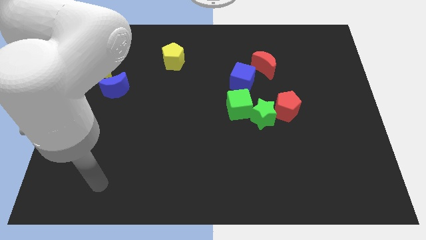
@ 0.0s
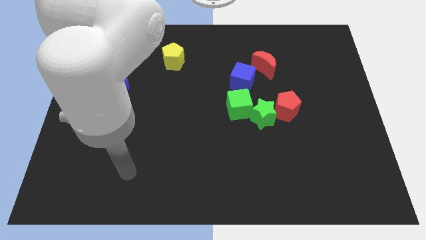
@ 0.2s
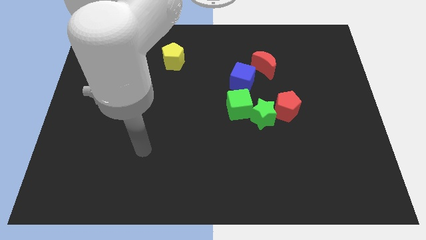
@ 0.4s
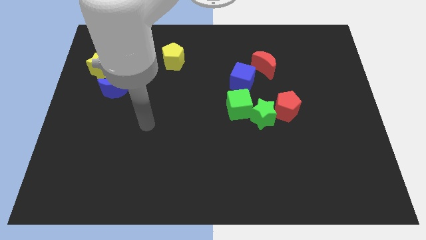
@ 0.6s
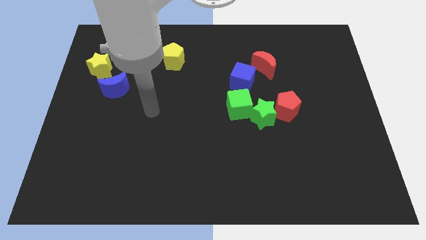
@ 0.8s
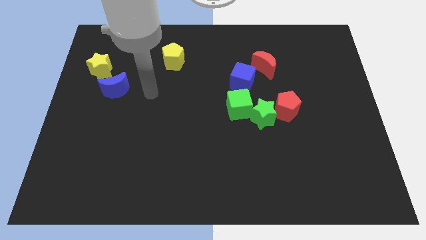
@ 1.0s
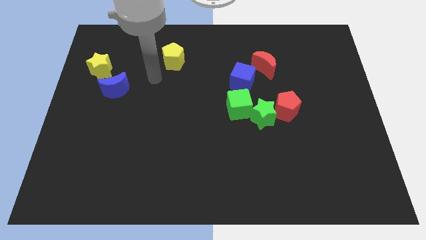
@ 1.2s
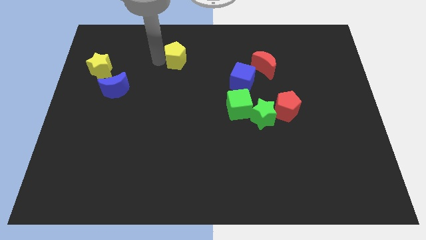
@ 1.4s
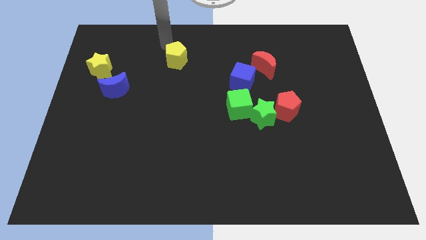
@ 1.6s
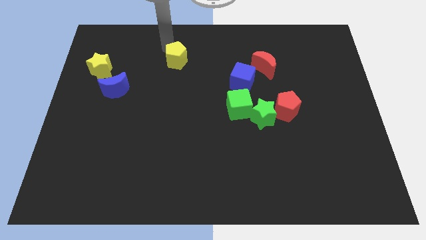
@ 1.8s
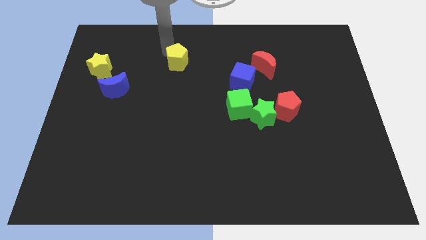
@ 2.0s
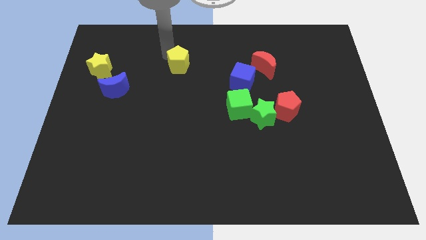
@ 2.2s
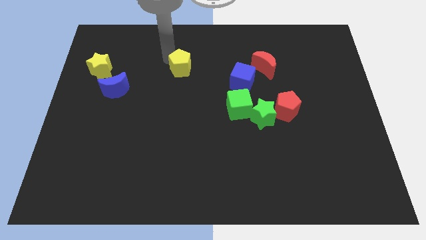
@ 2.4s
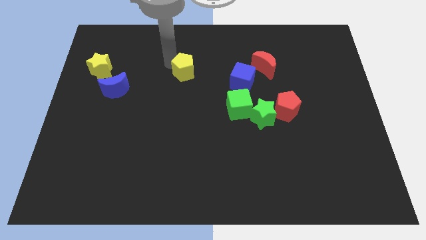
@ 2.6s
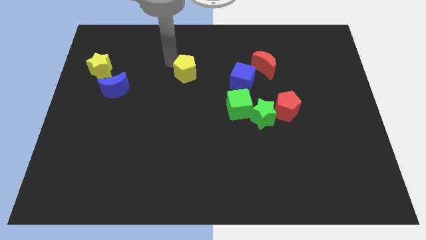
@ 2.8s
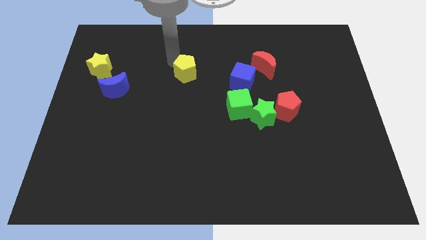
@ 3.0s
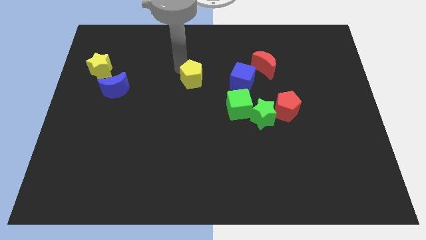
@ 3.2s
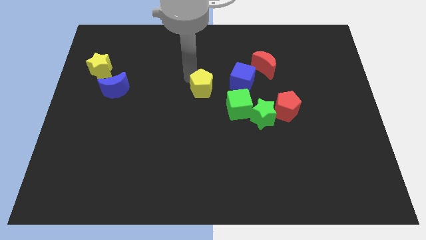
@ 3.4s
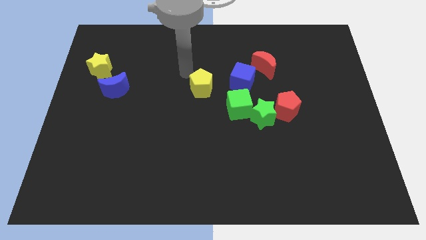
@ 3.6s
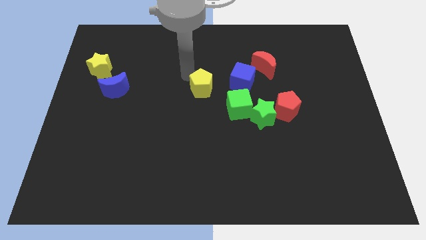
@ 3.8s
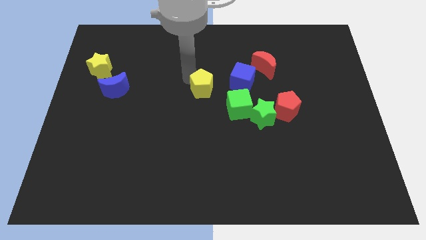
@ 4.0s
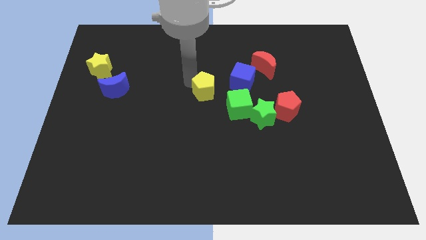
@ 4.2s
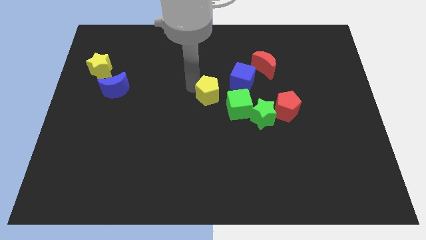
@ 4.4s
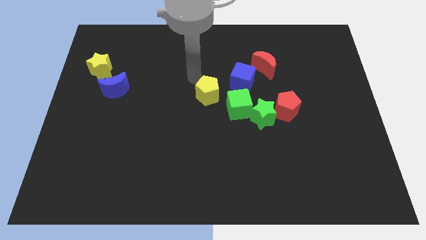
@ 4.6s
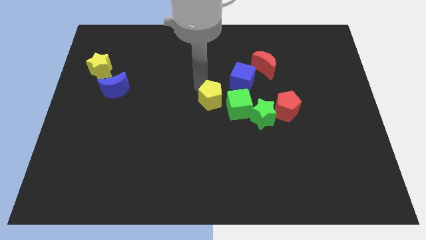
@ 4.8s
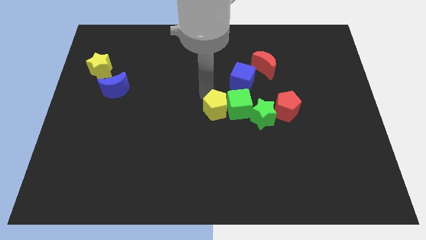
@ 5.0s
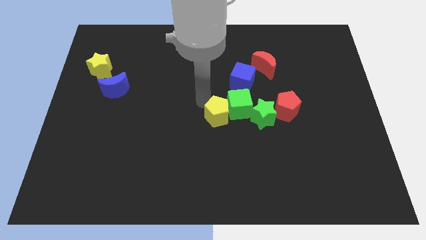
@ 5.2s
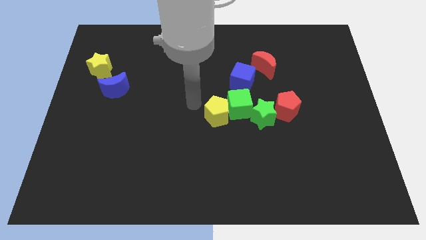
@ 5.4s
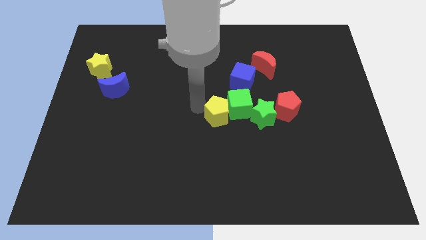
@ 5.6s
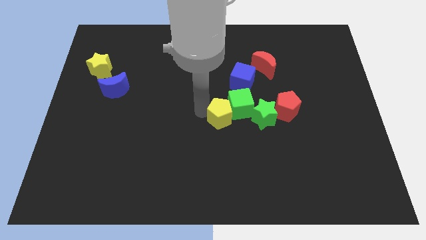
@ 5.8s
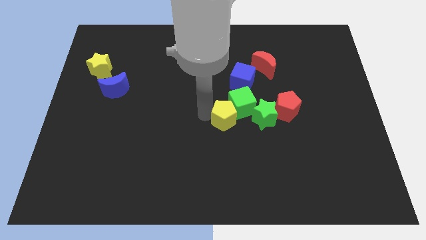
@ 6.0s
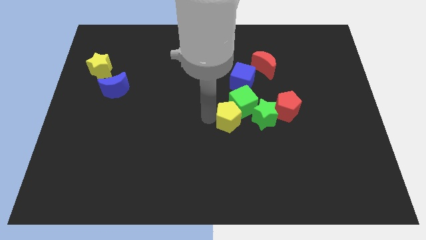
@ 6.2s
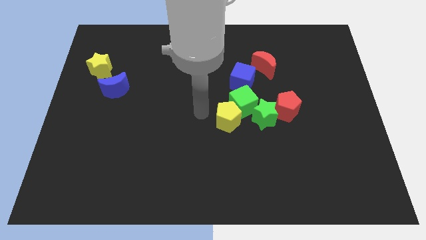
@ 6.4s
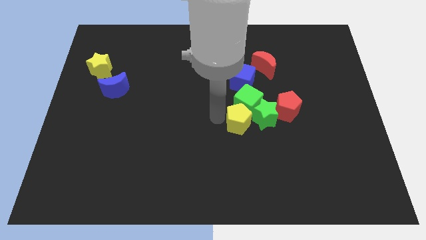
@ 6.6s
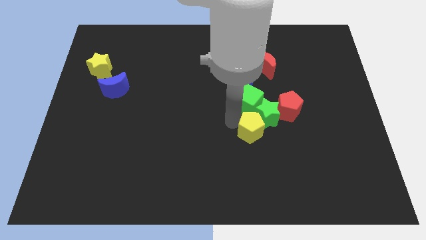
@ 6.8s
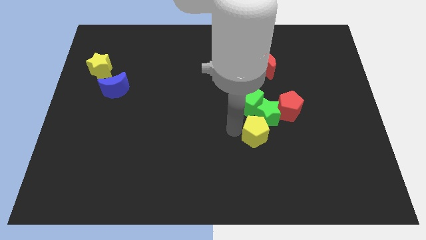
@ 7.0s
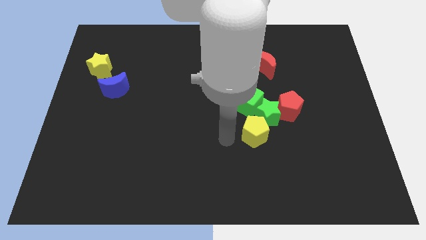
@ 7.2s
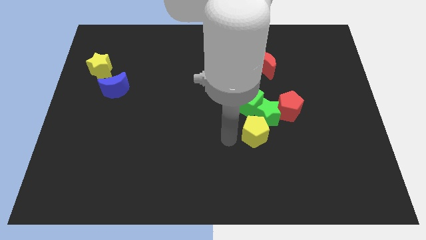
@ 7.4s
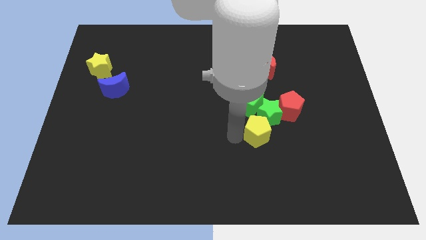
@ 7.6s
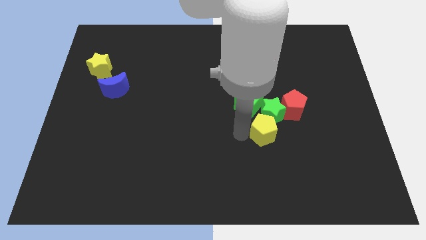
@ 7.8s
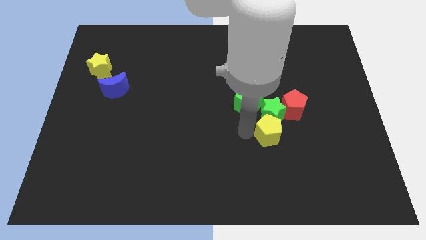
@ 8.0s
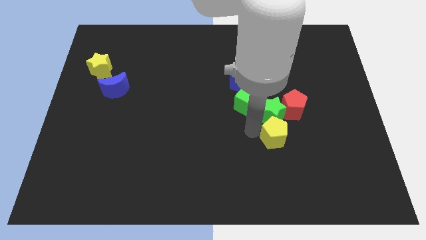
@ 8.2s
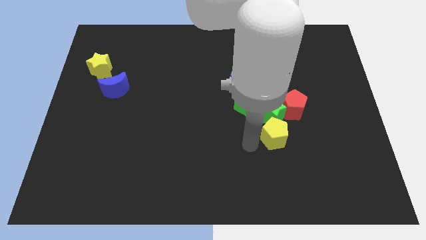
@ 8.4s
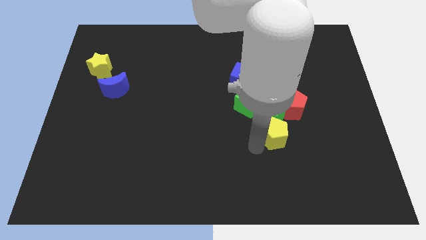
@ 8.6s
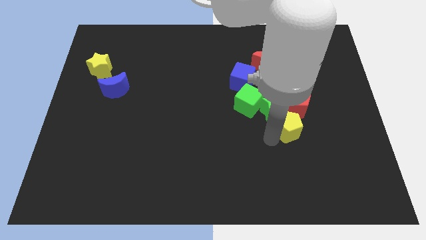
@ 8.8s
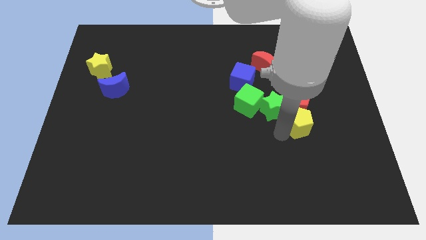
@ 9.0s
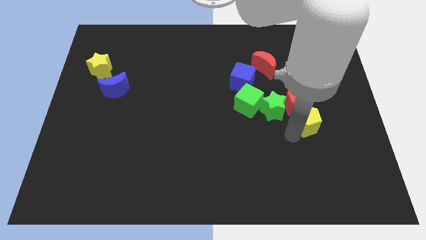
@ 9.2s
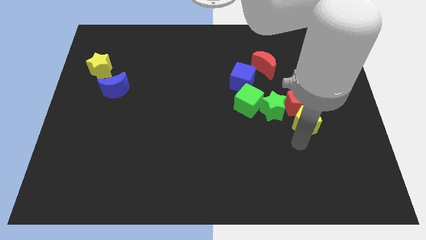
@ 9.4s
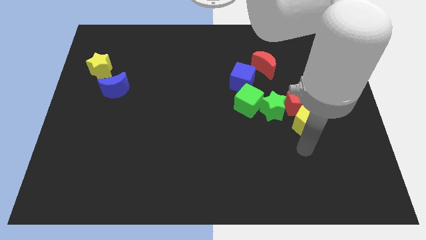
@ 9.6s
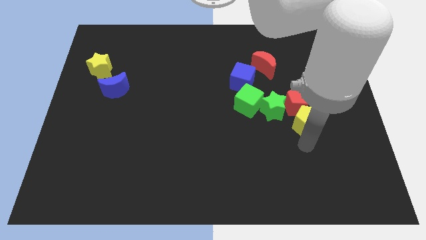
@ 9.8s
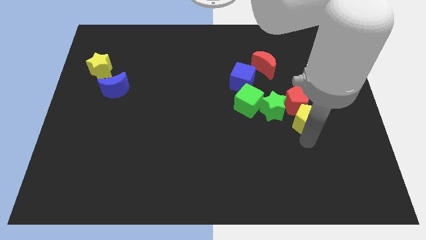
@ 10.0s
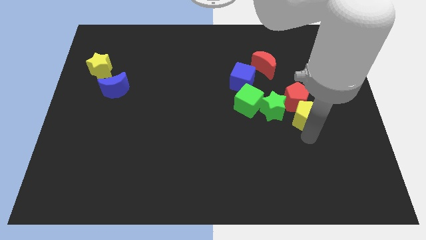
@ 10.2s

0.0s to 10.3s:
put the yellow pentagon to the right side of the green cube

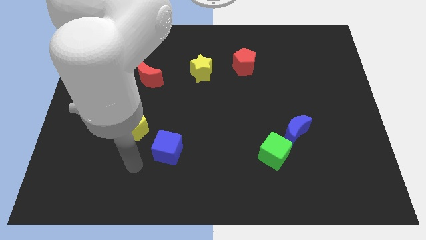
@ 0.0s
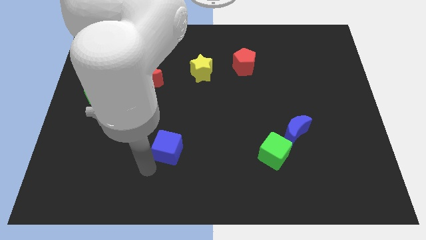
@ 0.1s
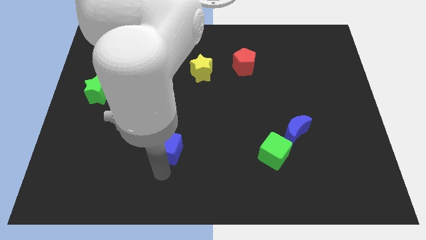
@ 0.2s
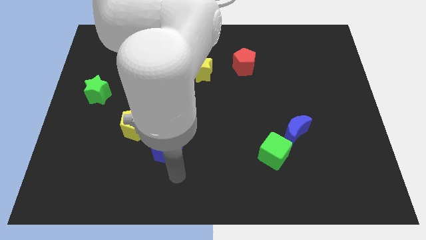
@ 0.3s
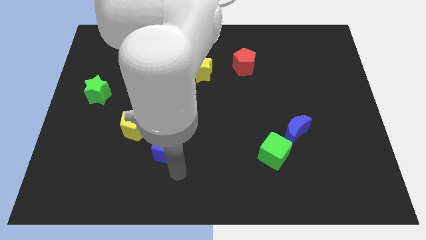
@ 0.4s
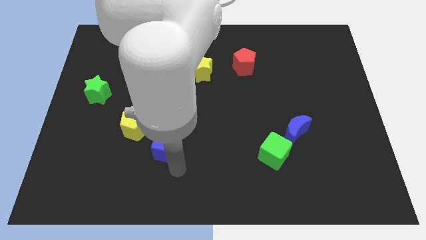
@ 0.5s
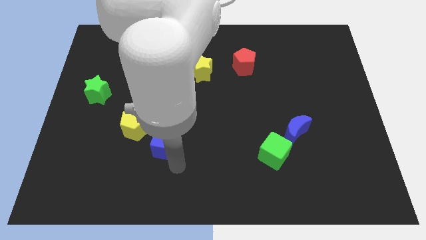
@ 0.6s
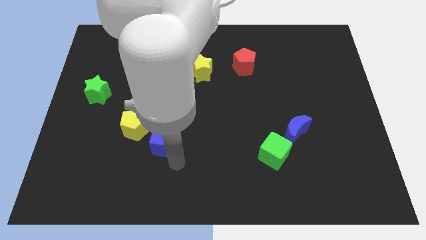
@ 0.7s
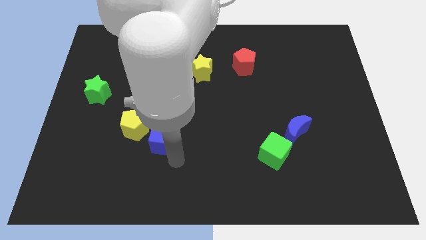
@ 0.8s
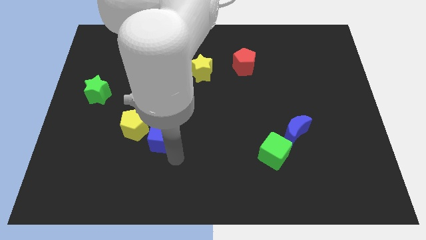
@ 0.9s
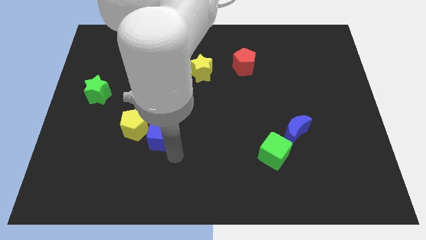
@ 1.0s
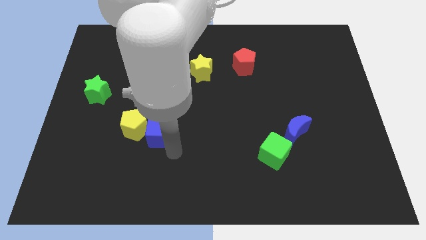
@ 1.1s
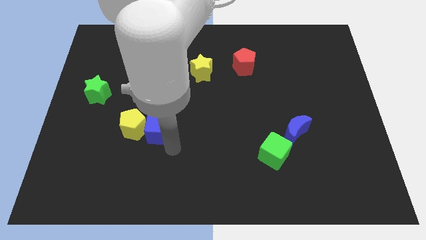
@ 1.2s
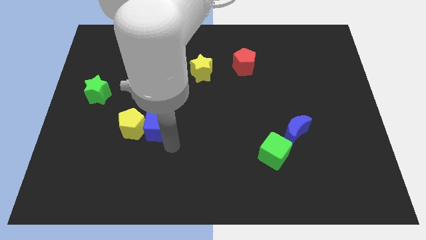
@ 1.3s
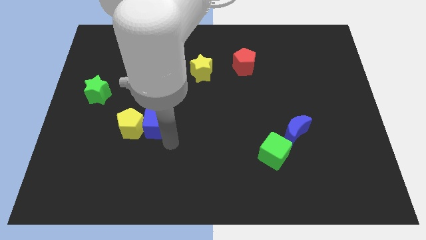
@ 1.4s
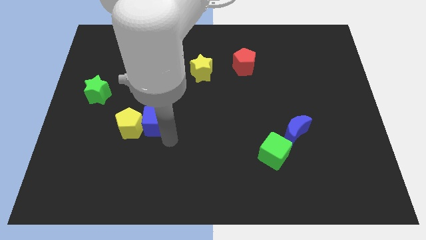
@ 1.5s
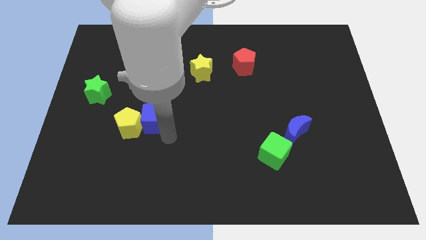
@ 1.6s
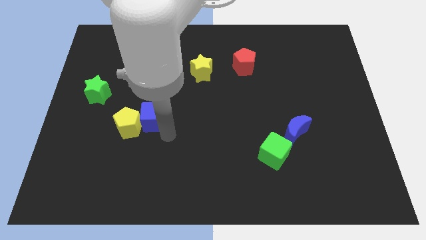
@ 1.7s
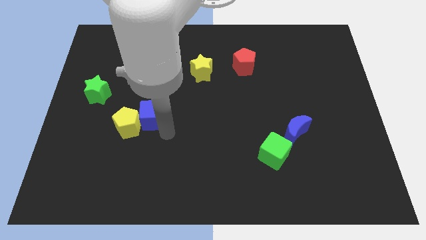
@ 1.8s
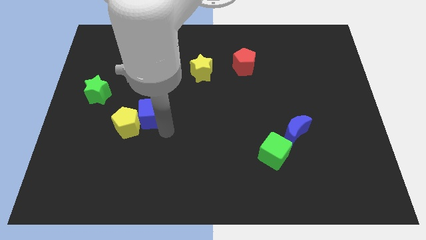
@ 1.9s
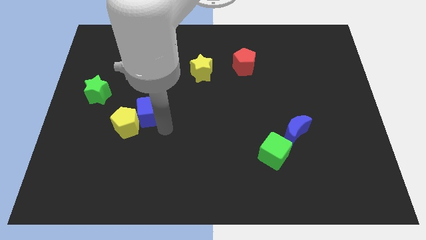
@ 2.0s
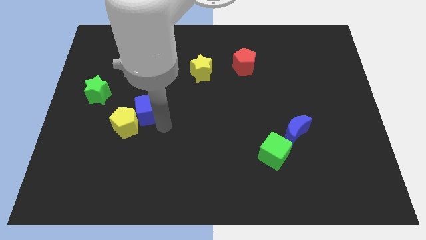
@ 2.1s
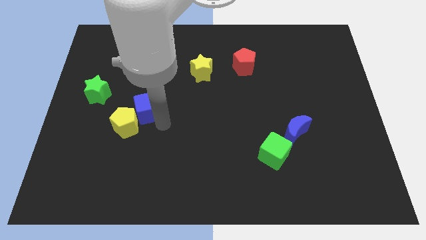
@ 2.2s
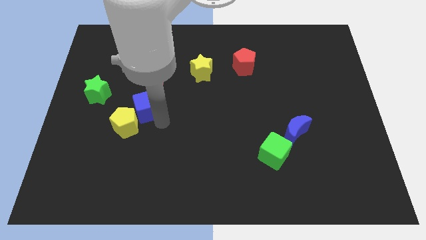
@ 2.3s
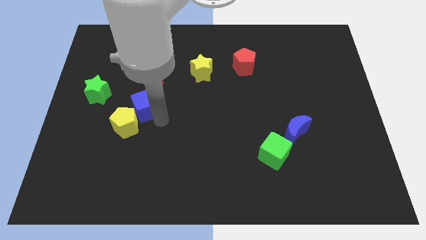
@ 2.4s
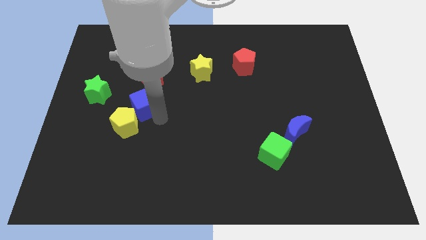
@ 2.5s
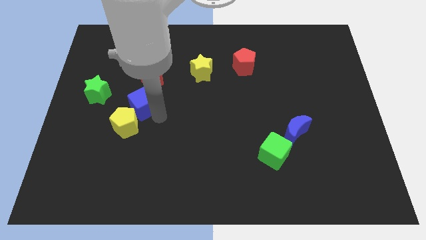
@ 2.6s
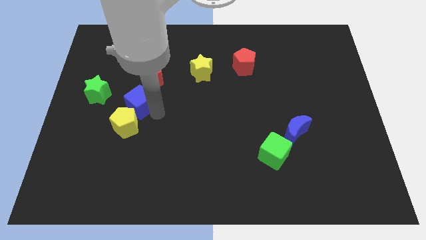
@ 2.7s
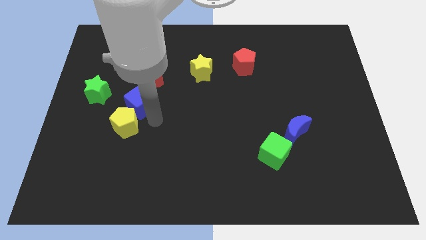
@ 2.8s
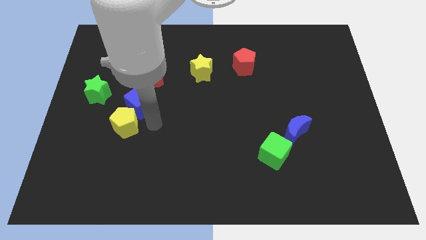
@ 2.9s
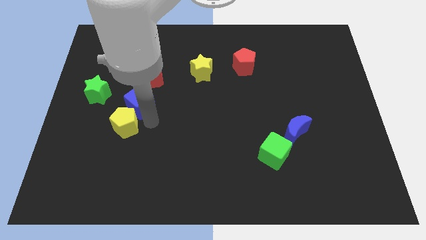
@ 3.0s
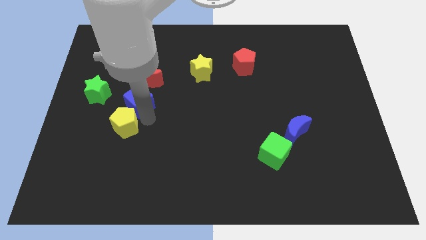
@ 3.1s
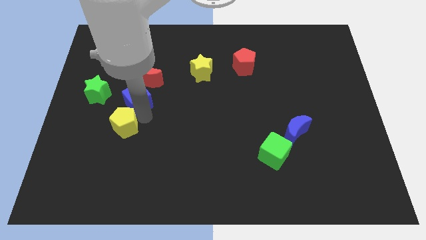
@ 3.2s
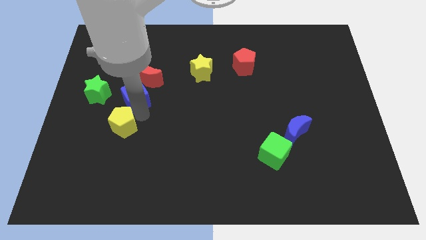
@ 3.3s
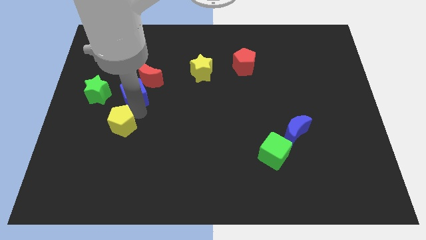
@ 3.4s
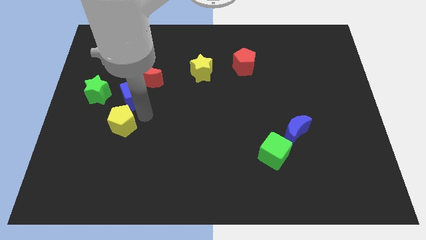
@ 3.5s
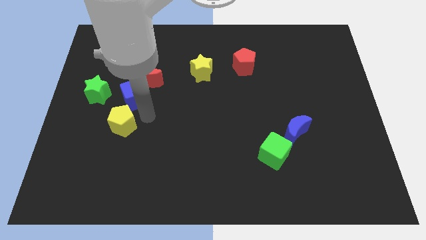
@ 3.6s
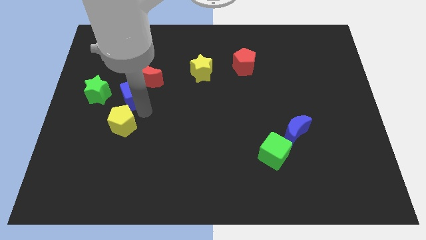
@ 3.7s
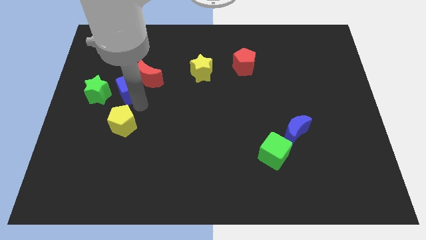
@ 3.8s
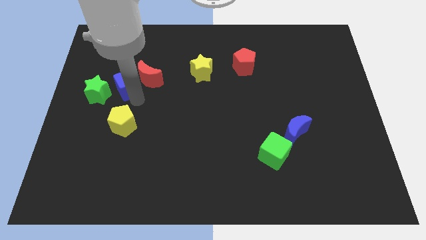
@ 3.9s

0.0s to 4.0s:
slide the blue cube diagonally up and to the right of the green star
